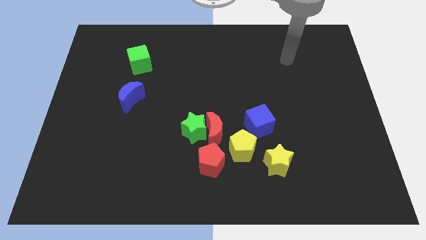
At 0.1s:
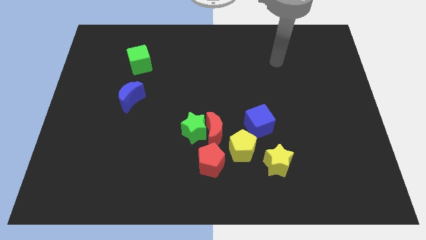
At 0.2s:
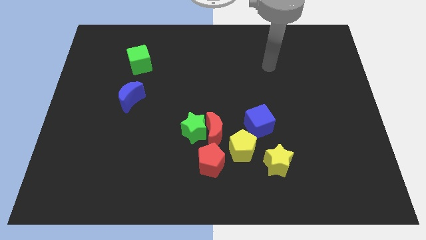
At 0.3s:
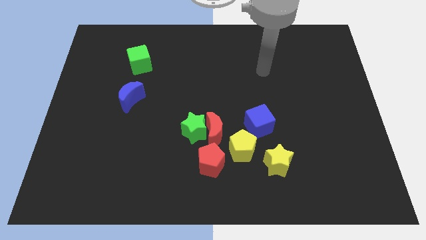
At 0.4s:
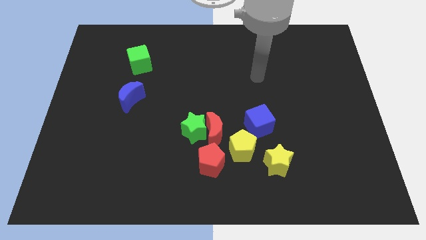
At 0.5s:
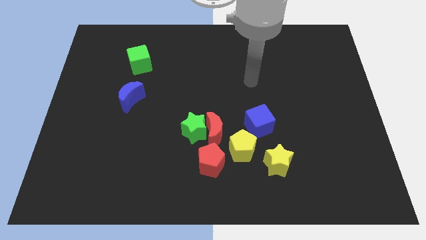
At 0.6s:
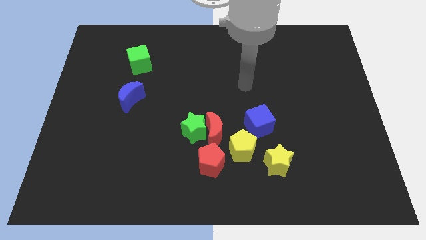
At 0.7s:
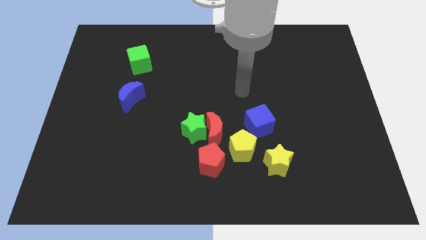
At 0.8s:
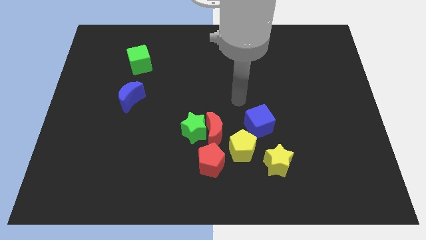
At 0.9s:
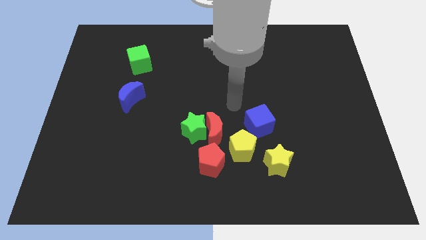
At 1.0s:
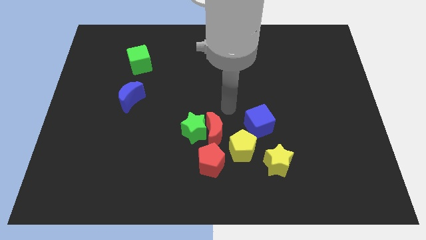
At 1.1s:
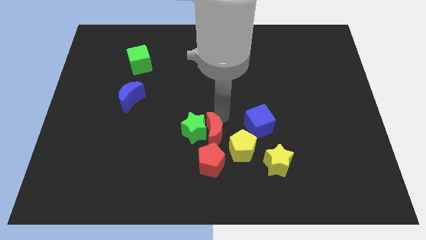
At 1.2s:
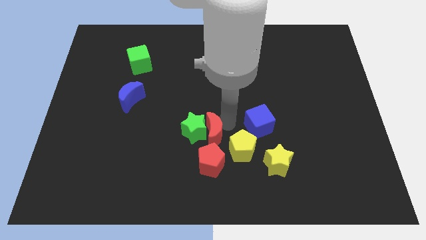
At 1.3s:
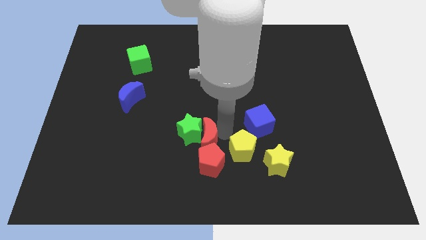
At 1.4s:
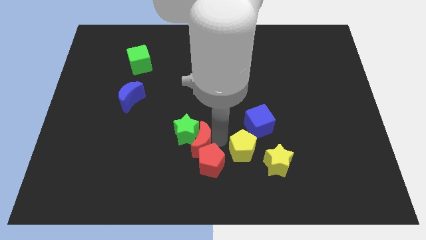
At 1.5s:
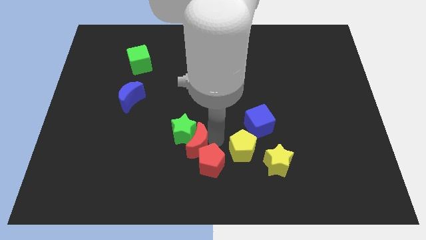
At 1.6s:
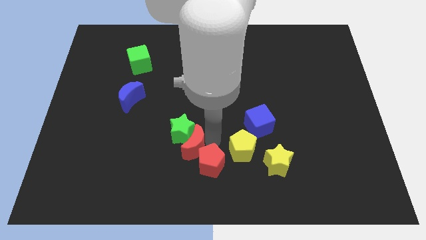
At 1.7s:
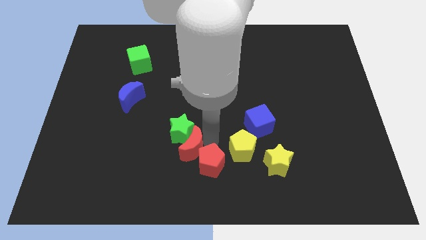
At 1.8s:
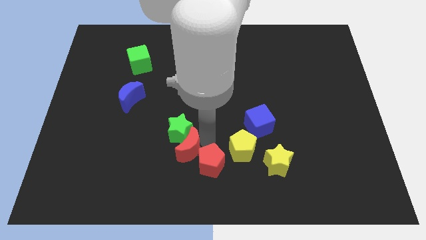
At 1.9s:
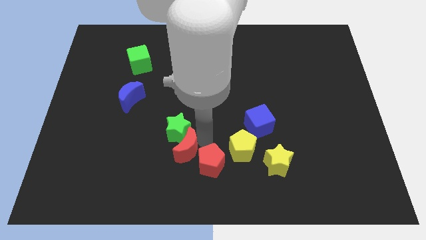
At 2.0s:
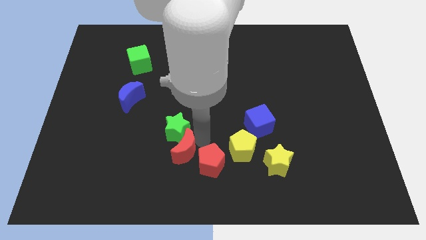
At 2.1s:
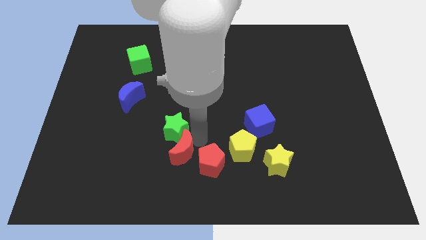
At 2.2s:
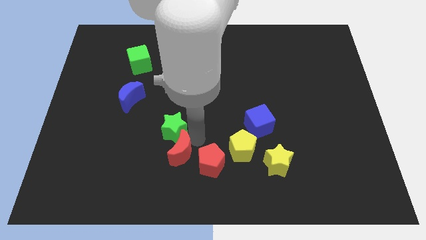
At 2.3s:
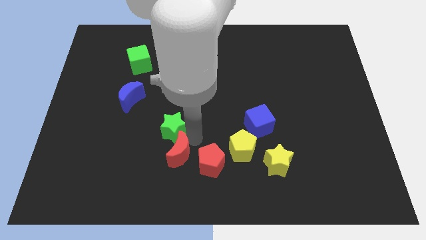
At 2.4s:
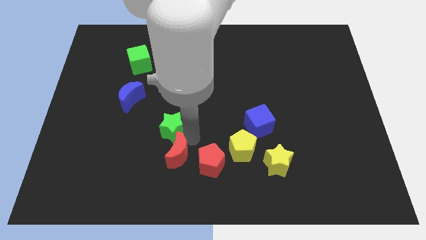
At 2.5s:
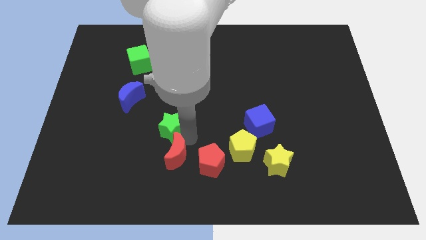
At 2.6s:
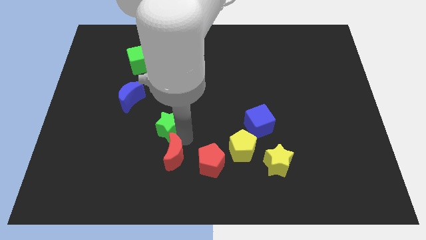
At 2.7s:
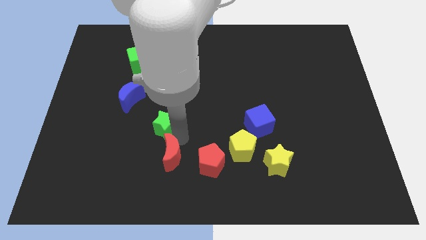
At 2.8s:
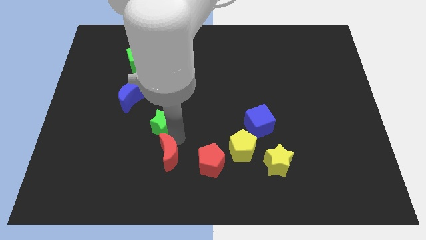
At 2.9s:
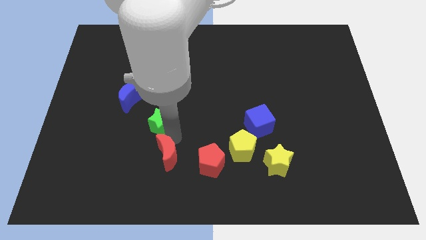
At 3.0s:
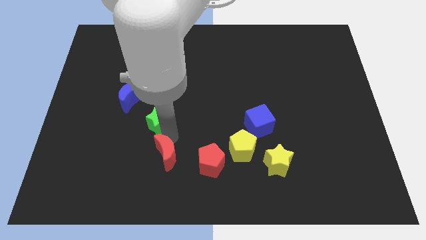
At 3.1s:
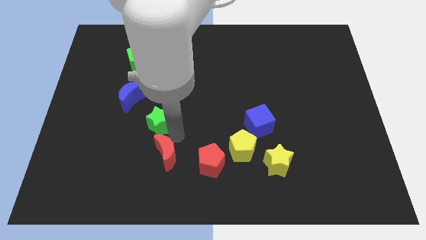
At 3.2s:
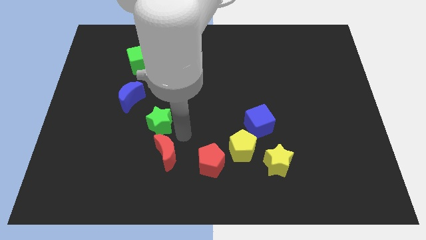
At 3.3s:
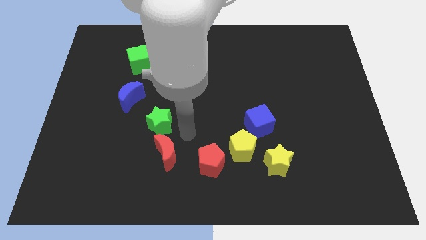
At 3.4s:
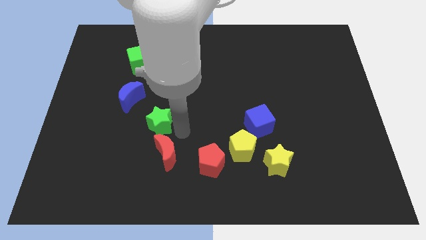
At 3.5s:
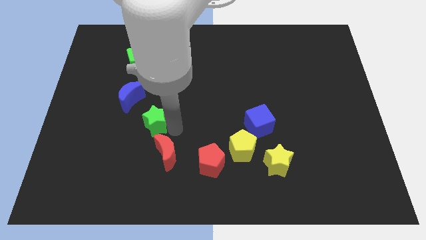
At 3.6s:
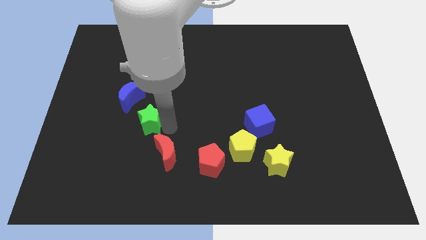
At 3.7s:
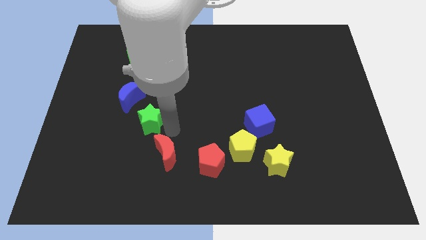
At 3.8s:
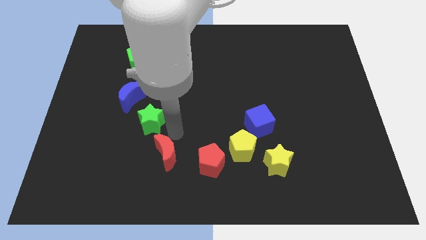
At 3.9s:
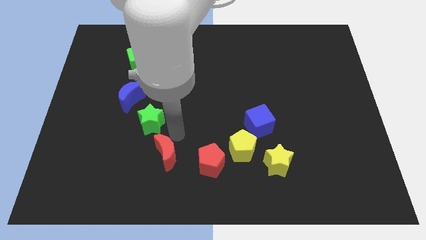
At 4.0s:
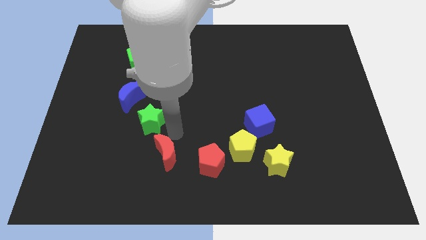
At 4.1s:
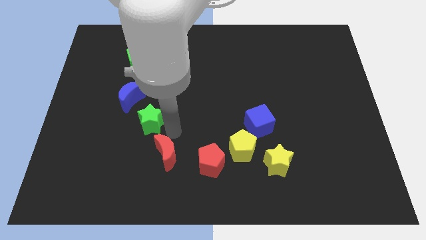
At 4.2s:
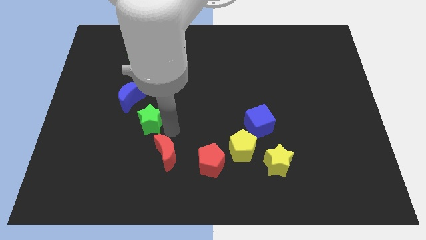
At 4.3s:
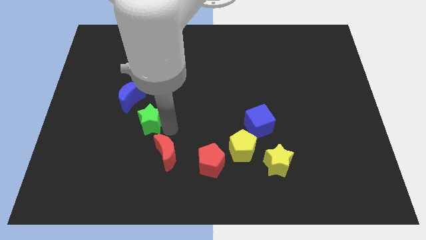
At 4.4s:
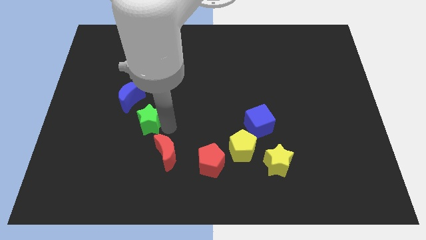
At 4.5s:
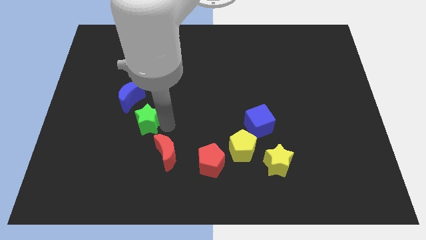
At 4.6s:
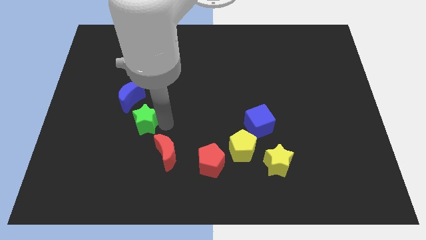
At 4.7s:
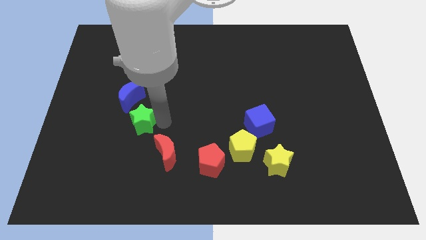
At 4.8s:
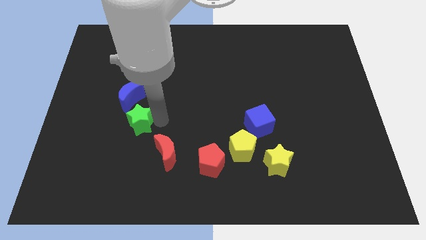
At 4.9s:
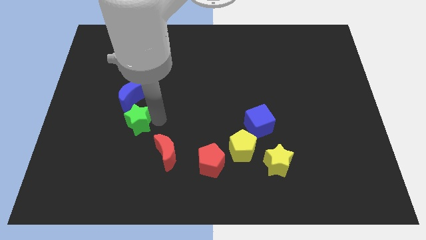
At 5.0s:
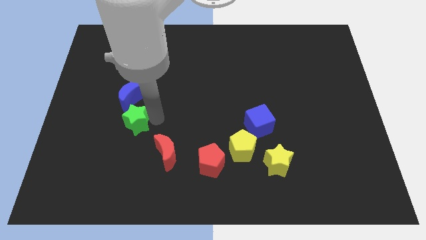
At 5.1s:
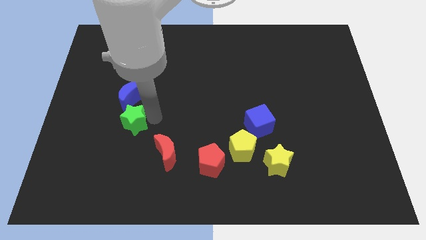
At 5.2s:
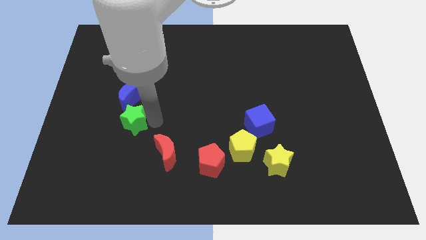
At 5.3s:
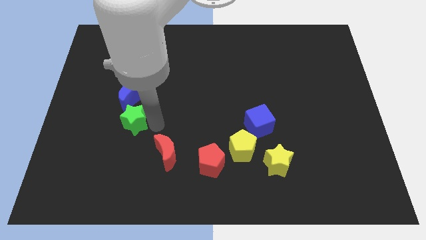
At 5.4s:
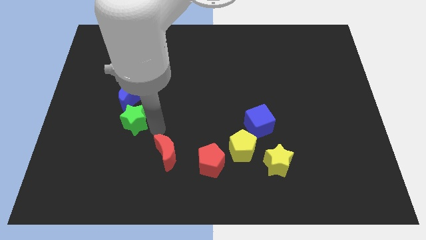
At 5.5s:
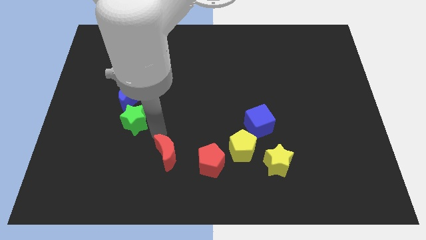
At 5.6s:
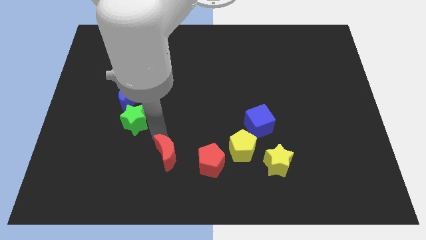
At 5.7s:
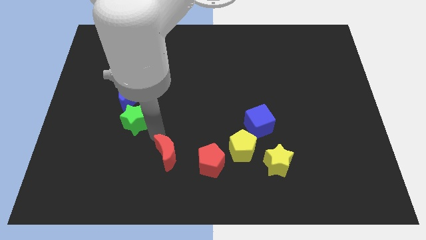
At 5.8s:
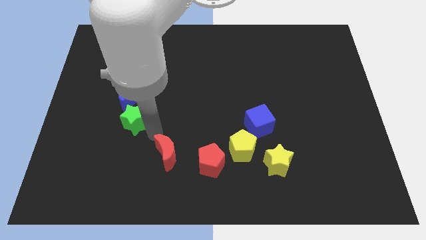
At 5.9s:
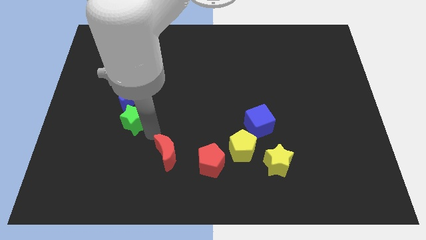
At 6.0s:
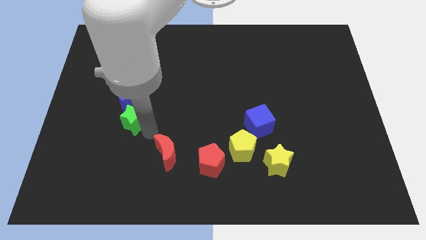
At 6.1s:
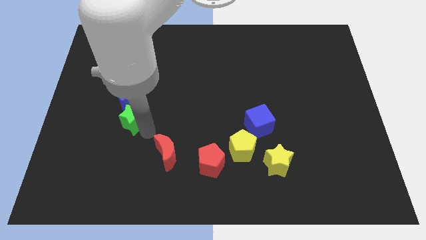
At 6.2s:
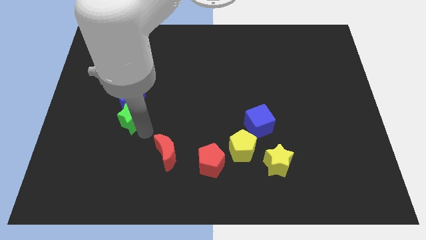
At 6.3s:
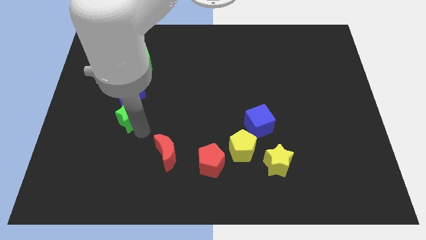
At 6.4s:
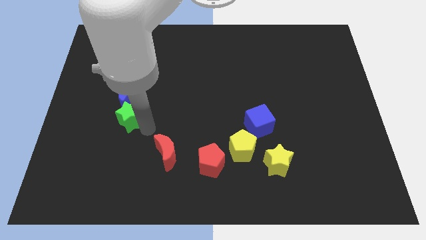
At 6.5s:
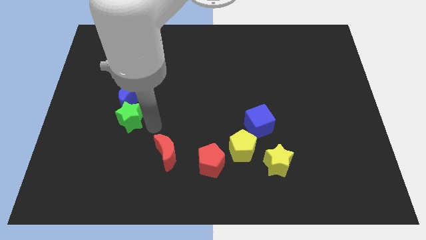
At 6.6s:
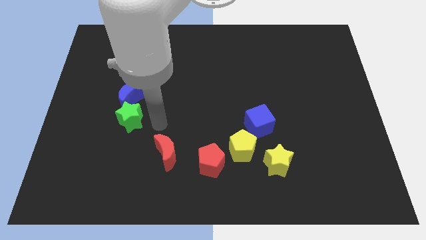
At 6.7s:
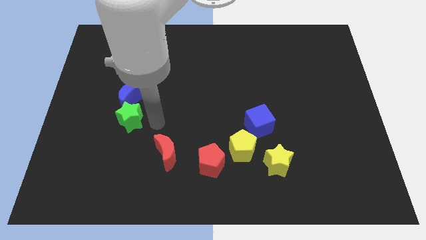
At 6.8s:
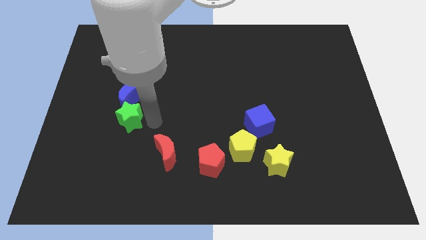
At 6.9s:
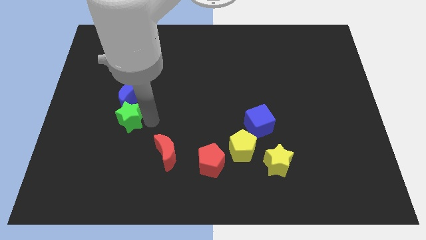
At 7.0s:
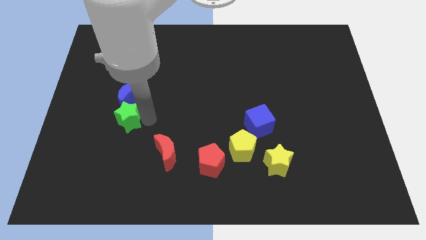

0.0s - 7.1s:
put the green star diagonally down and to the left of the blue moon
